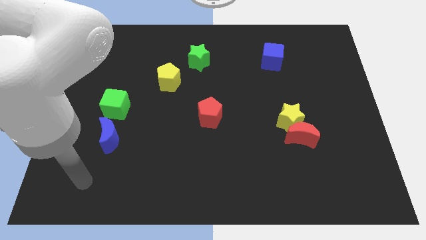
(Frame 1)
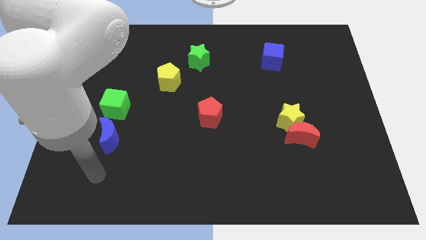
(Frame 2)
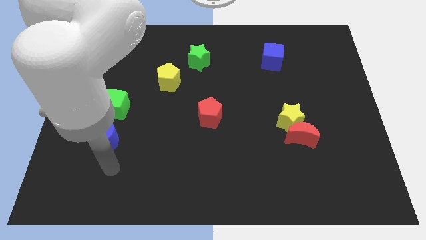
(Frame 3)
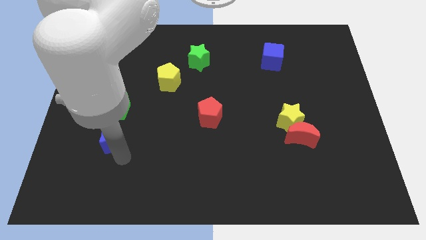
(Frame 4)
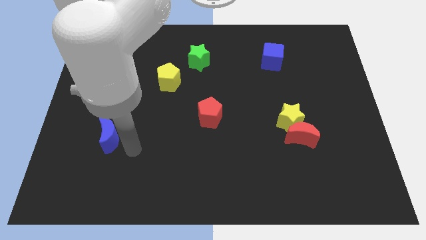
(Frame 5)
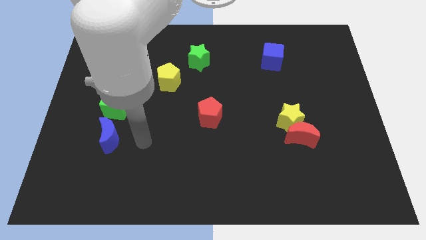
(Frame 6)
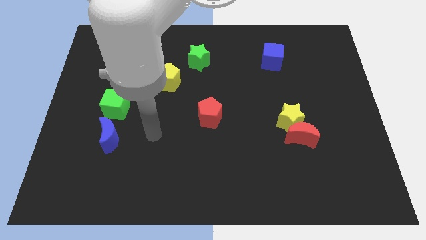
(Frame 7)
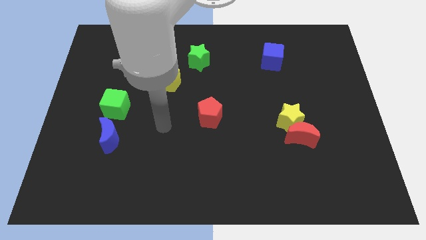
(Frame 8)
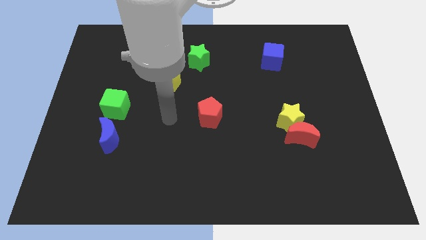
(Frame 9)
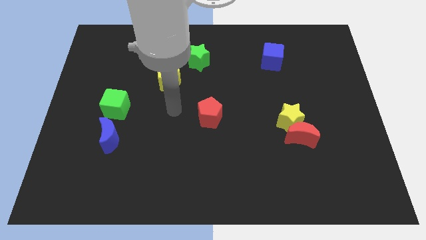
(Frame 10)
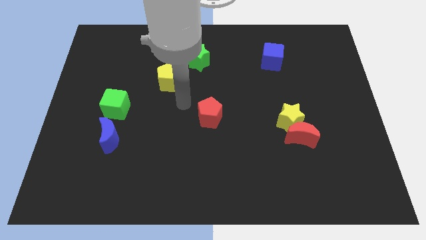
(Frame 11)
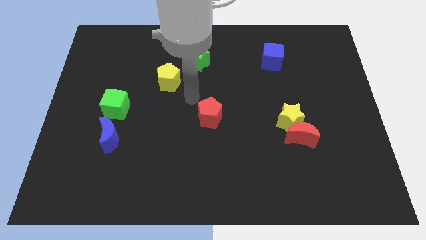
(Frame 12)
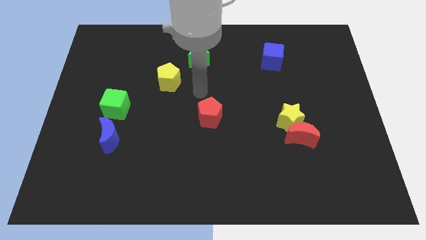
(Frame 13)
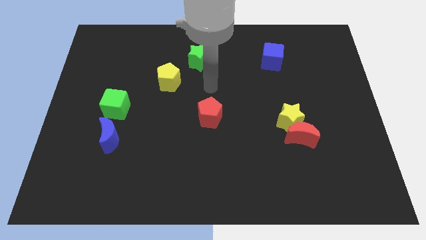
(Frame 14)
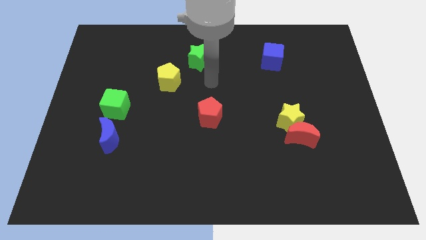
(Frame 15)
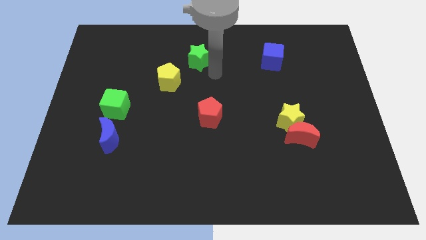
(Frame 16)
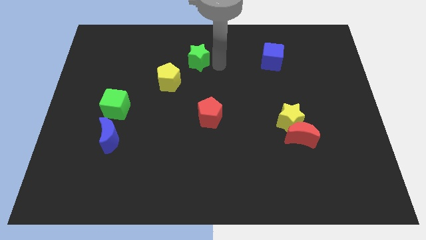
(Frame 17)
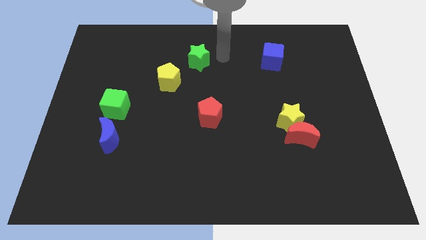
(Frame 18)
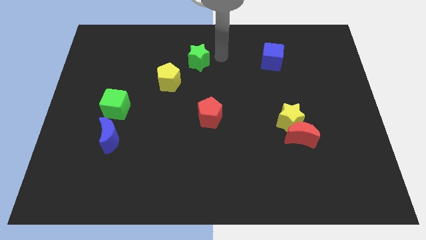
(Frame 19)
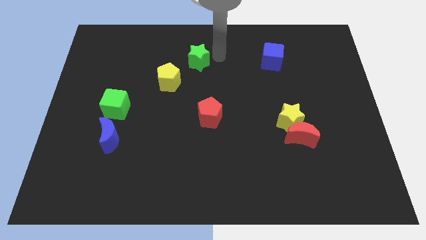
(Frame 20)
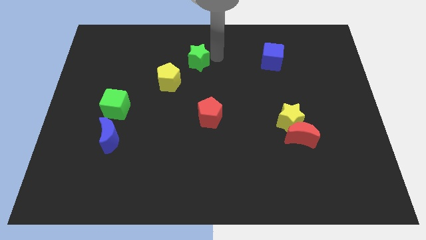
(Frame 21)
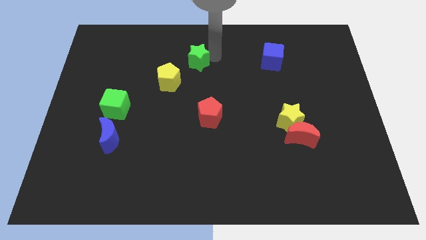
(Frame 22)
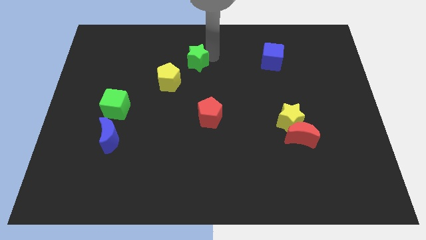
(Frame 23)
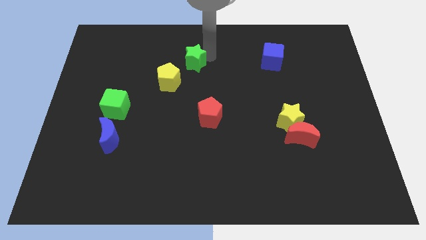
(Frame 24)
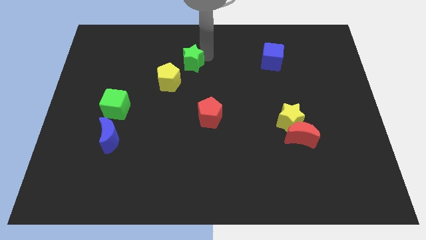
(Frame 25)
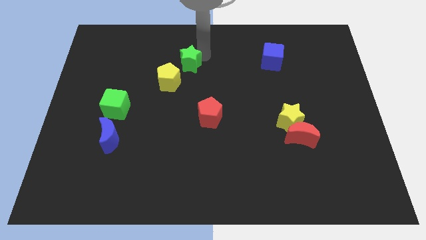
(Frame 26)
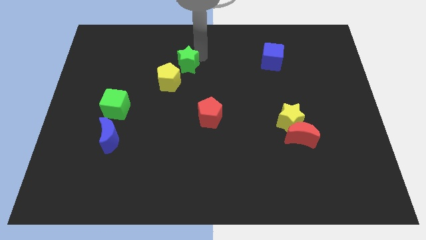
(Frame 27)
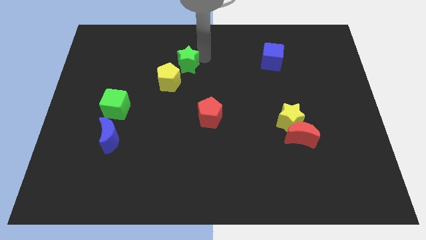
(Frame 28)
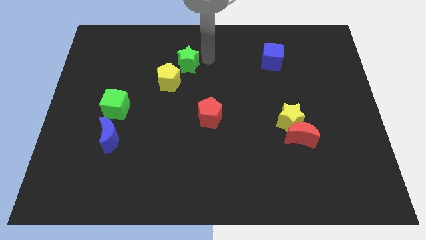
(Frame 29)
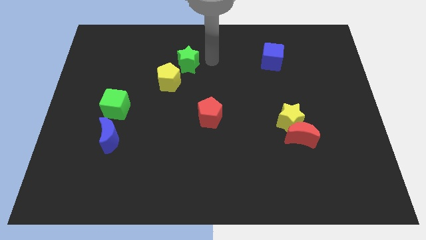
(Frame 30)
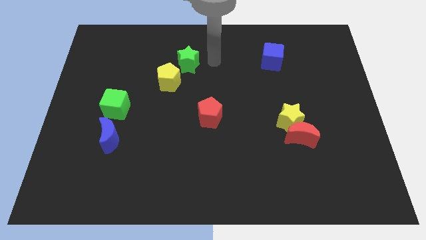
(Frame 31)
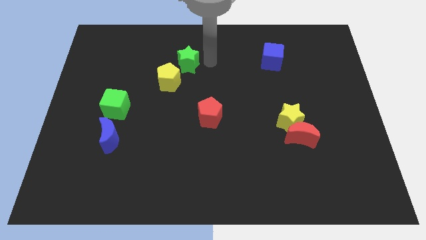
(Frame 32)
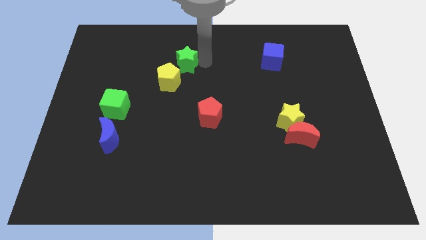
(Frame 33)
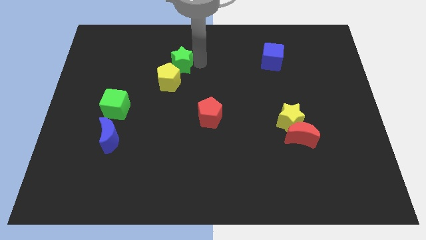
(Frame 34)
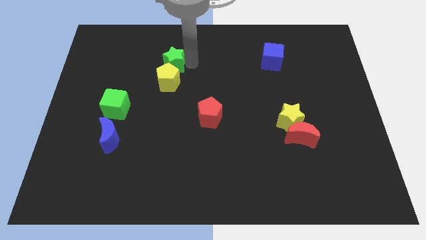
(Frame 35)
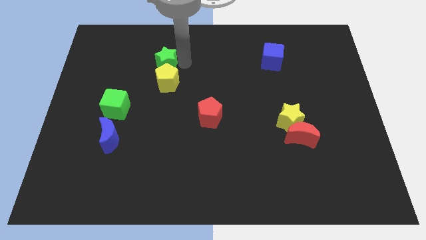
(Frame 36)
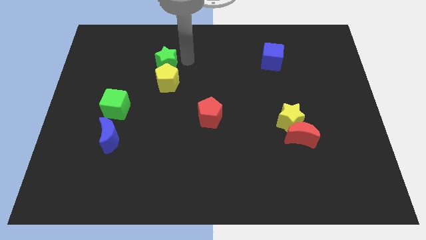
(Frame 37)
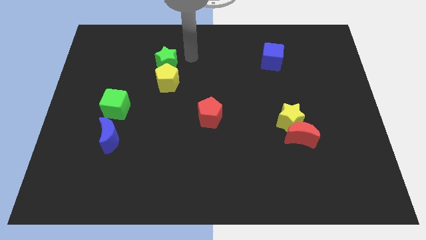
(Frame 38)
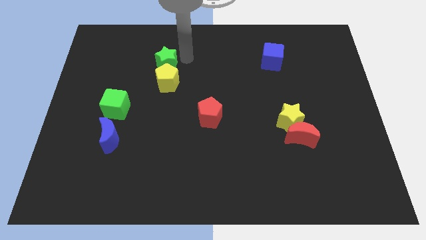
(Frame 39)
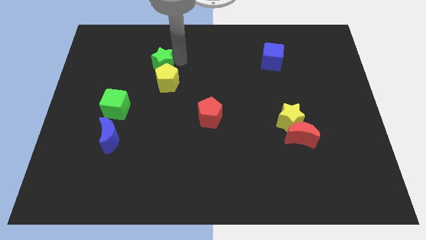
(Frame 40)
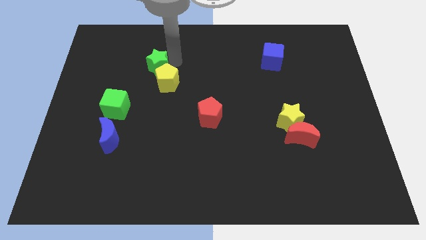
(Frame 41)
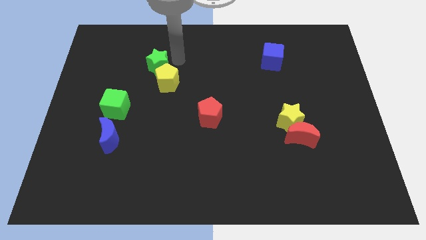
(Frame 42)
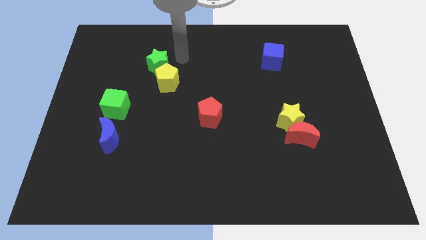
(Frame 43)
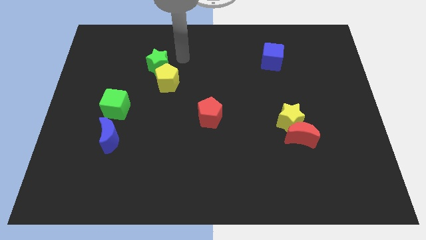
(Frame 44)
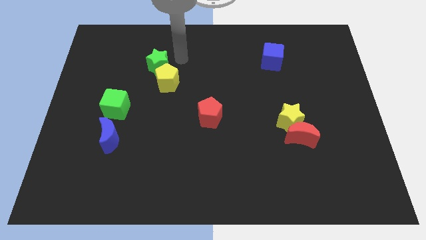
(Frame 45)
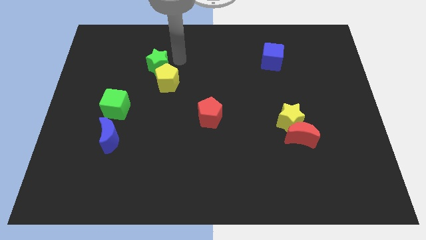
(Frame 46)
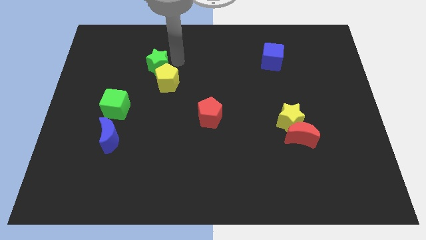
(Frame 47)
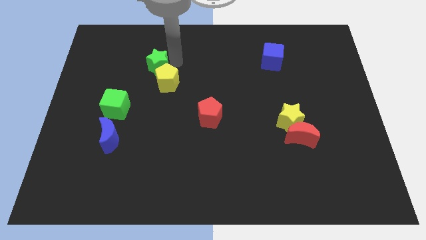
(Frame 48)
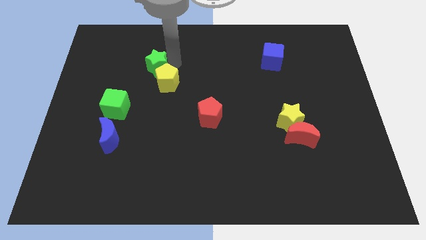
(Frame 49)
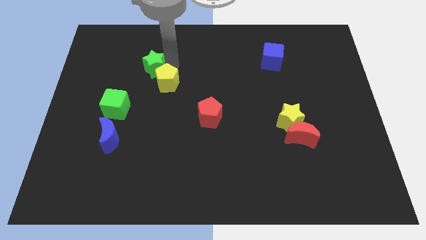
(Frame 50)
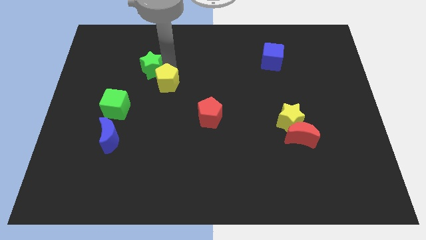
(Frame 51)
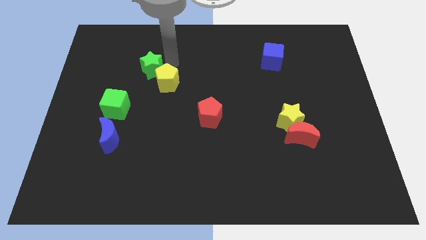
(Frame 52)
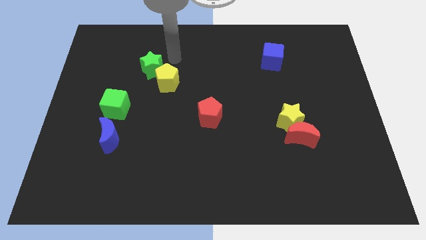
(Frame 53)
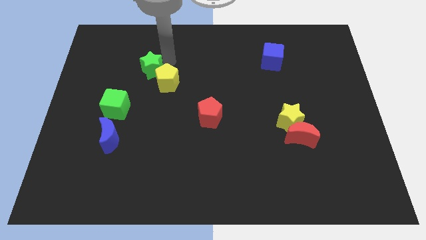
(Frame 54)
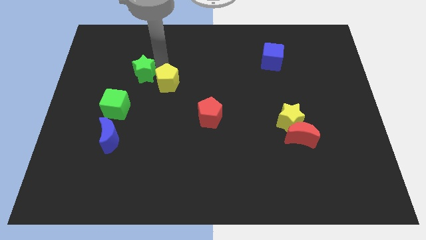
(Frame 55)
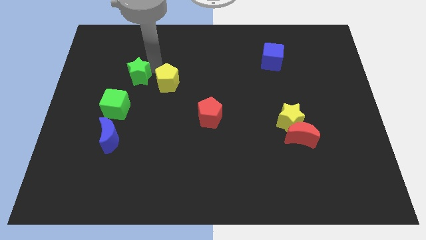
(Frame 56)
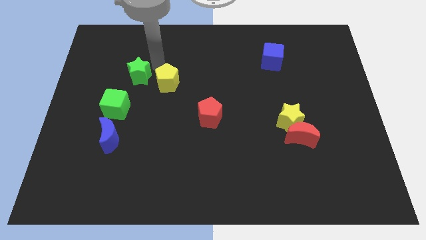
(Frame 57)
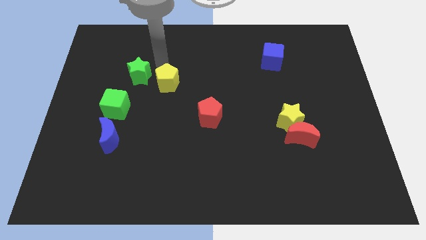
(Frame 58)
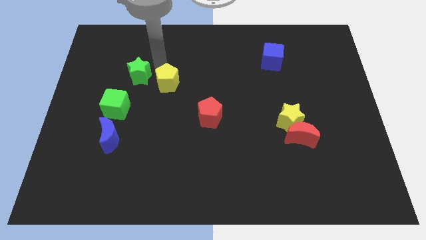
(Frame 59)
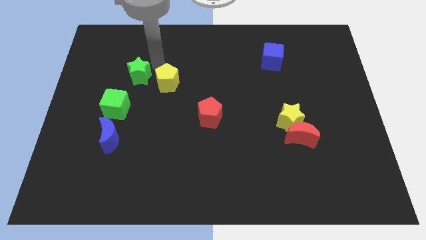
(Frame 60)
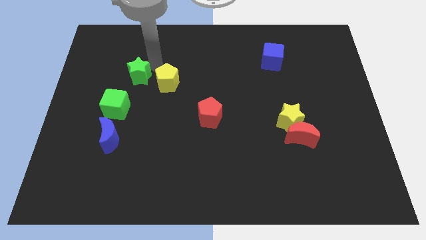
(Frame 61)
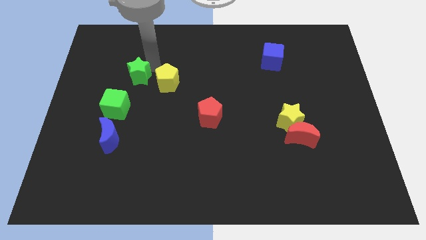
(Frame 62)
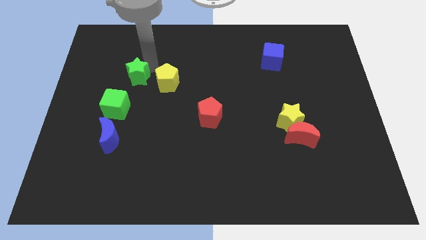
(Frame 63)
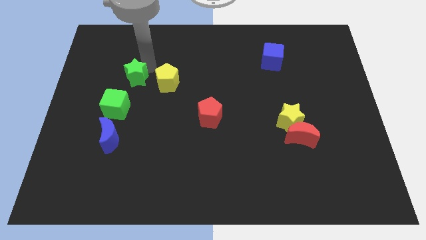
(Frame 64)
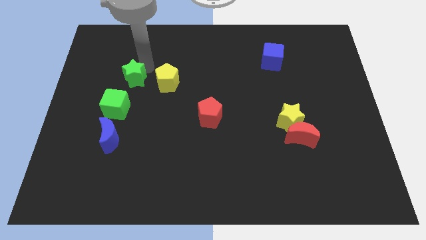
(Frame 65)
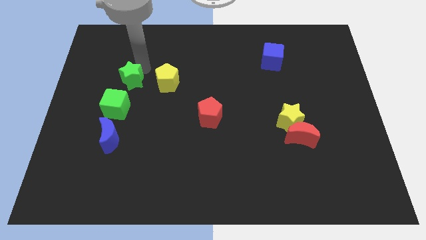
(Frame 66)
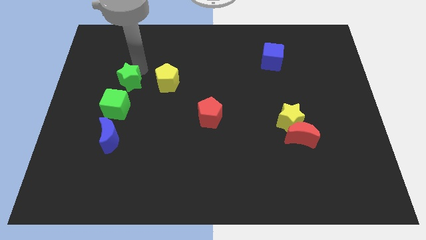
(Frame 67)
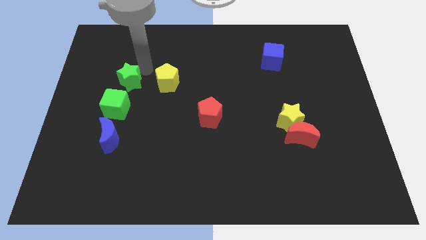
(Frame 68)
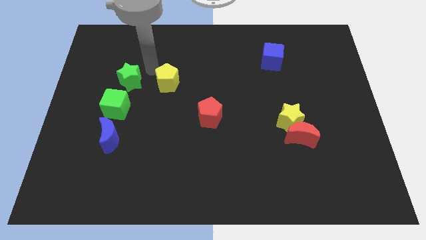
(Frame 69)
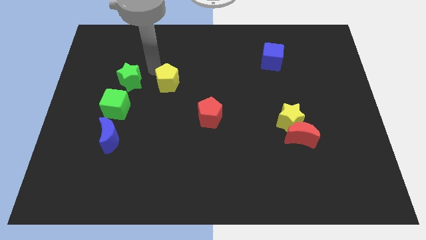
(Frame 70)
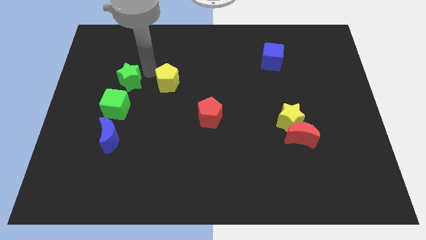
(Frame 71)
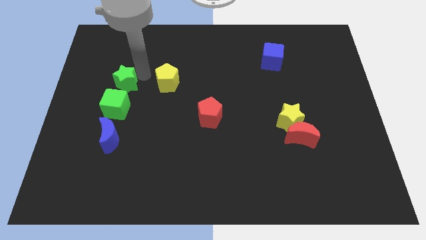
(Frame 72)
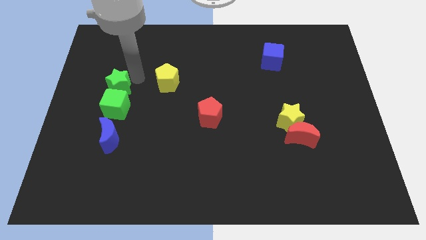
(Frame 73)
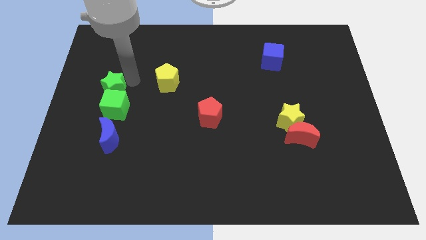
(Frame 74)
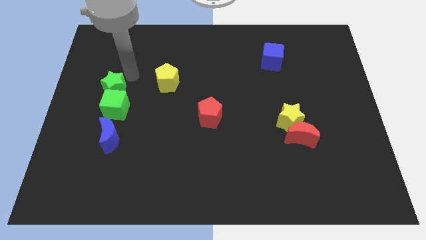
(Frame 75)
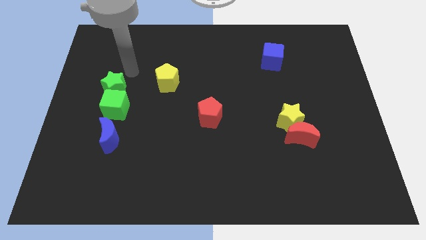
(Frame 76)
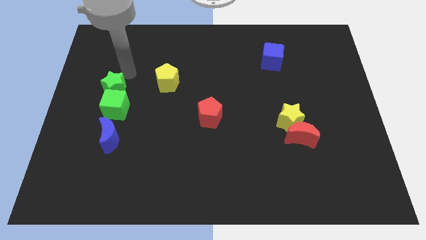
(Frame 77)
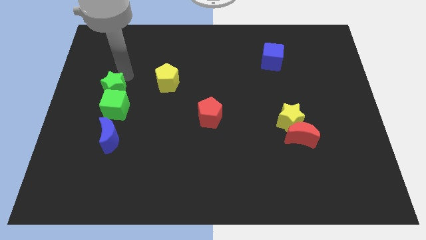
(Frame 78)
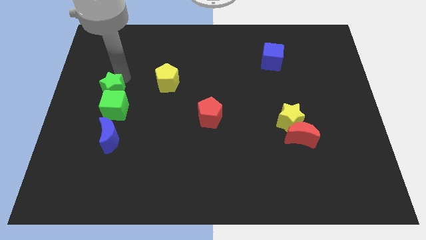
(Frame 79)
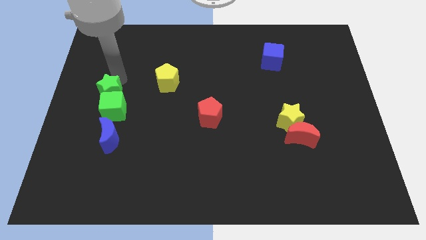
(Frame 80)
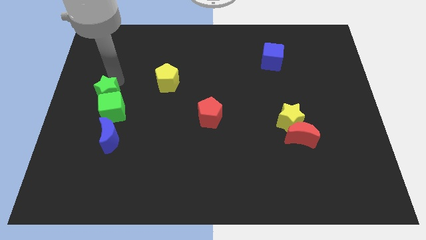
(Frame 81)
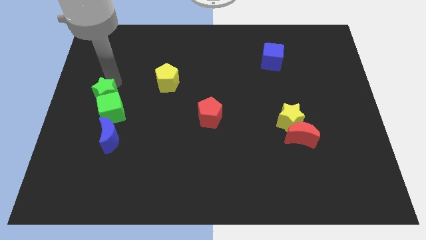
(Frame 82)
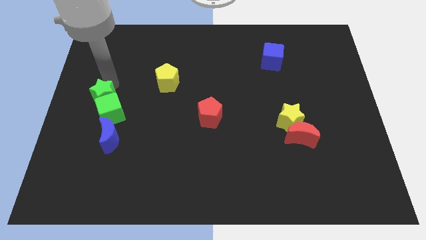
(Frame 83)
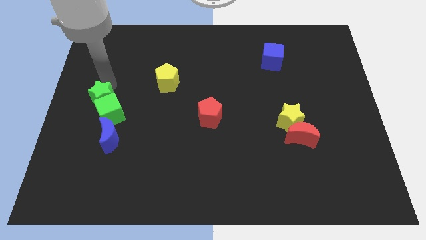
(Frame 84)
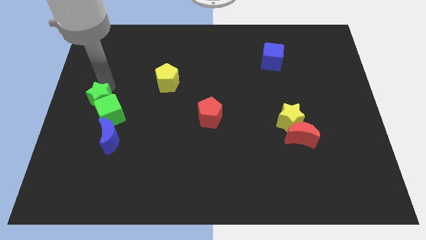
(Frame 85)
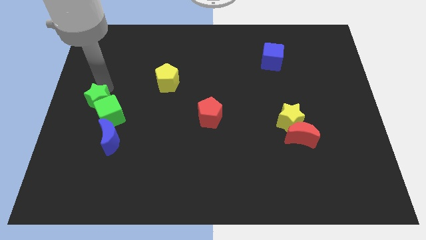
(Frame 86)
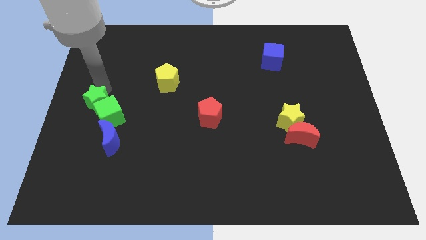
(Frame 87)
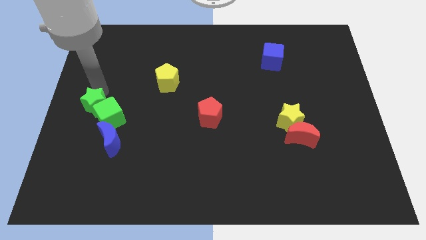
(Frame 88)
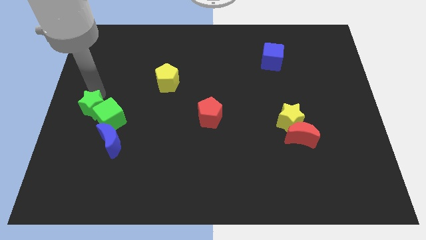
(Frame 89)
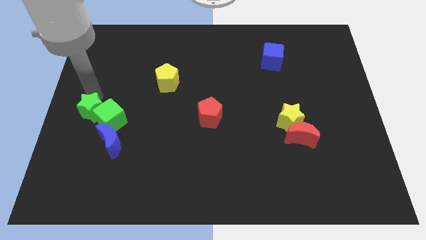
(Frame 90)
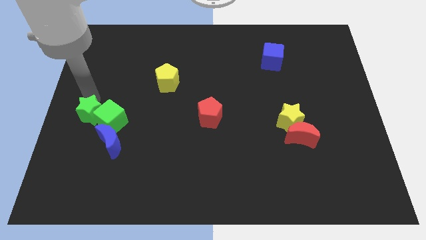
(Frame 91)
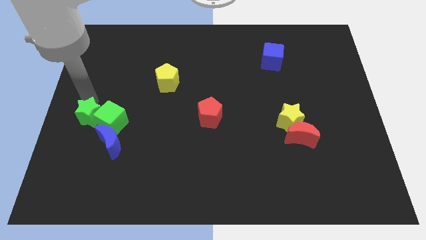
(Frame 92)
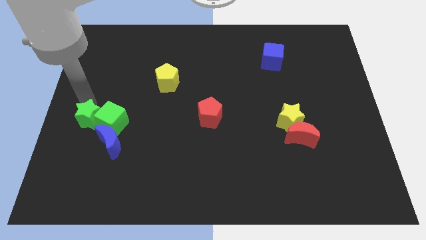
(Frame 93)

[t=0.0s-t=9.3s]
push the green star to the bottom left side of the green cube
